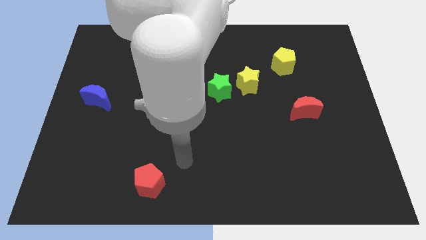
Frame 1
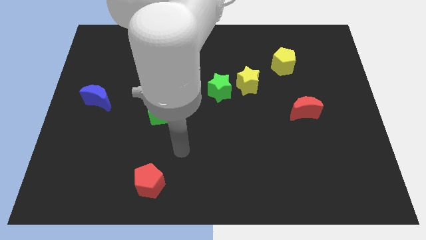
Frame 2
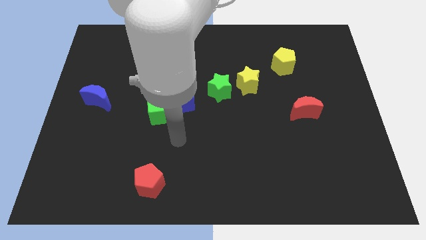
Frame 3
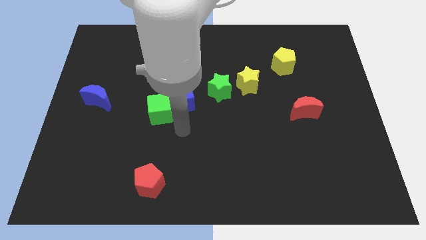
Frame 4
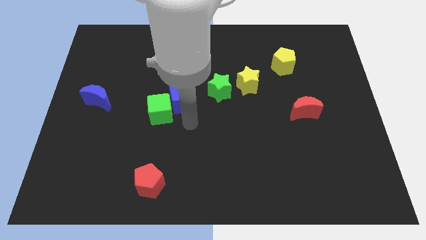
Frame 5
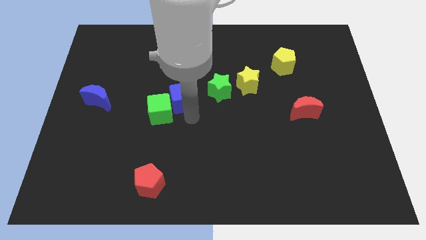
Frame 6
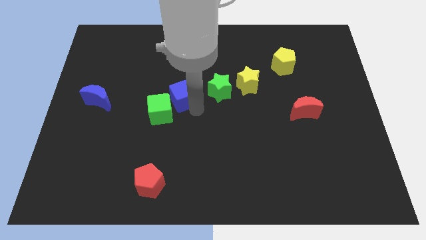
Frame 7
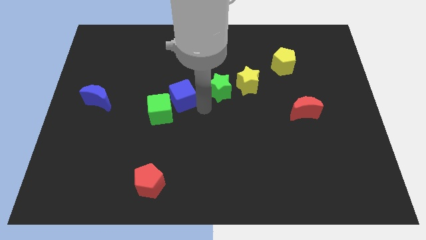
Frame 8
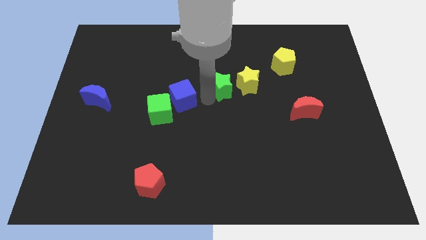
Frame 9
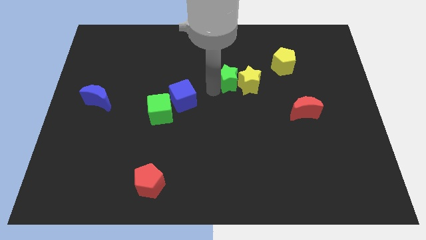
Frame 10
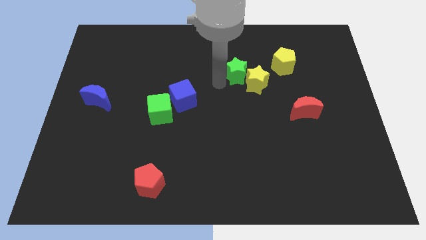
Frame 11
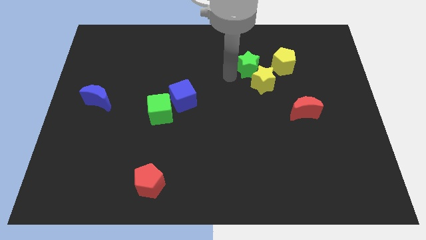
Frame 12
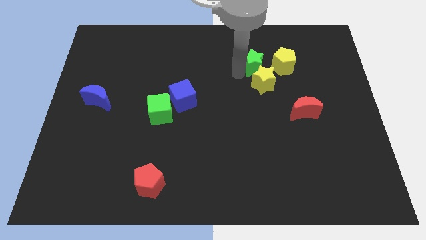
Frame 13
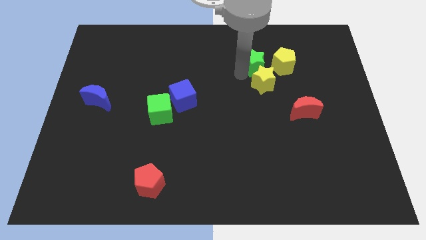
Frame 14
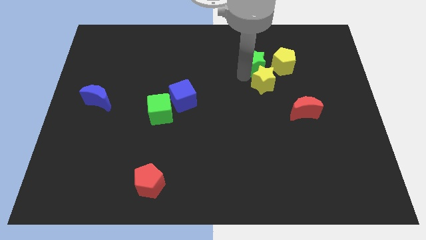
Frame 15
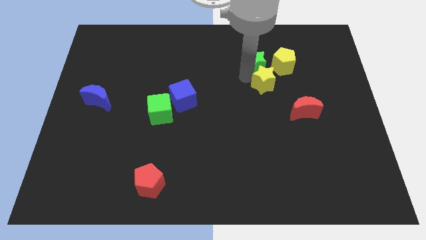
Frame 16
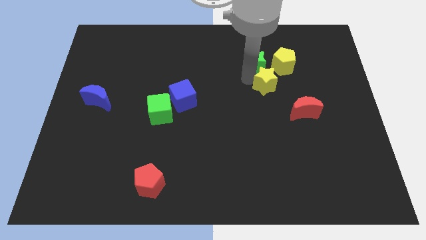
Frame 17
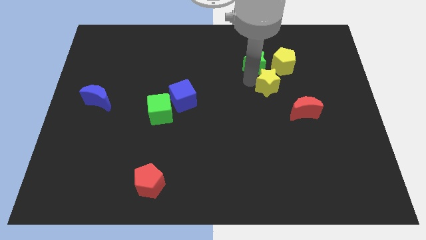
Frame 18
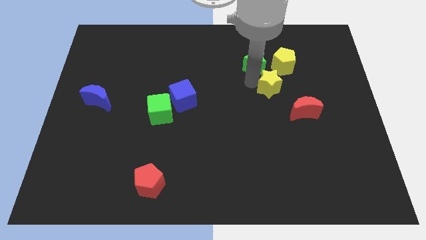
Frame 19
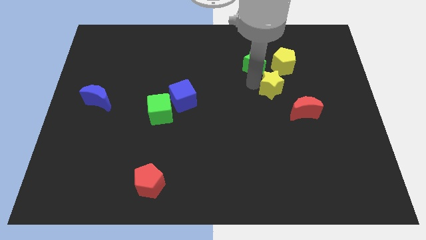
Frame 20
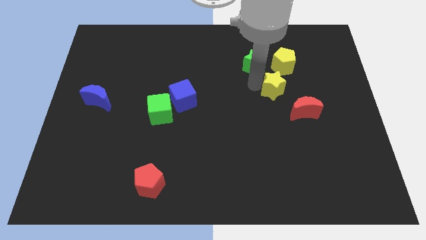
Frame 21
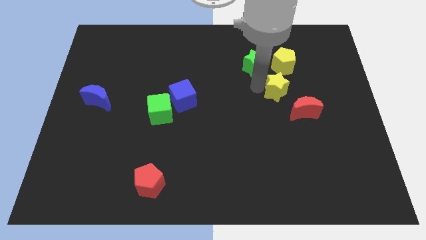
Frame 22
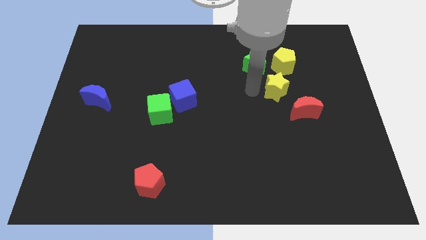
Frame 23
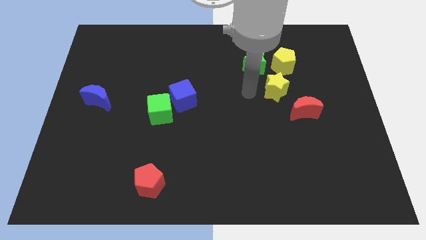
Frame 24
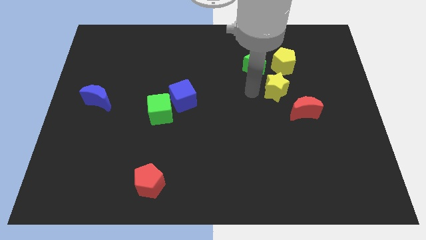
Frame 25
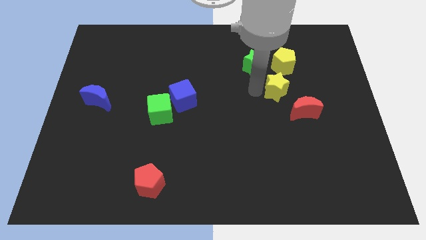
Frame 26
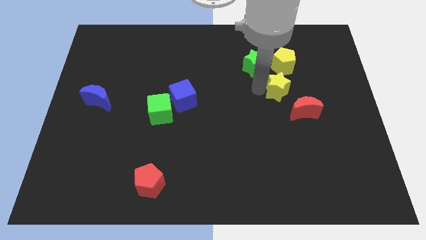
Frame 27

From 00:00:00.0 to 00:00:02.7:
push the yellow star right a bit

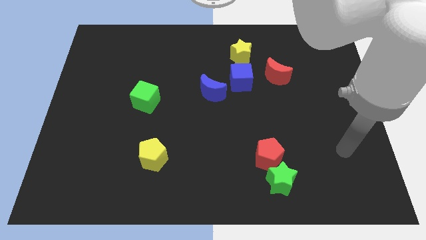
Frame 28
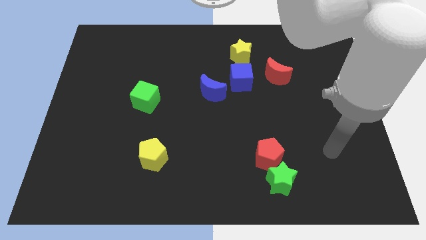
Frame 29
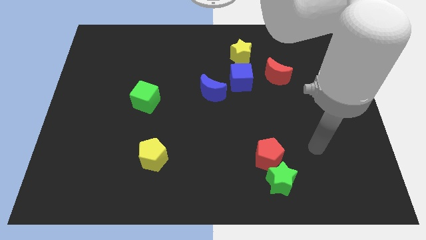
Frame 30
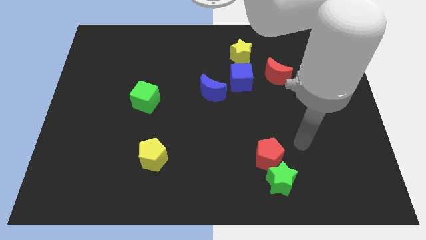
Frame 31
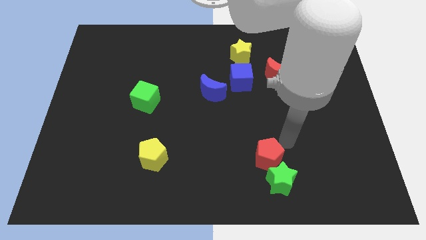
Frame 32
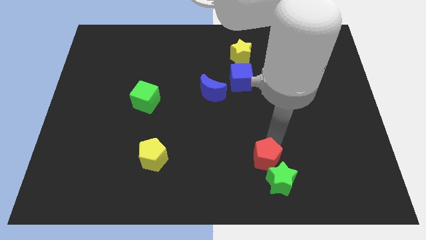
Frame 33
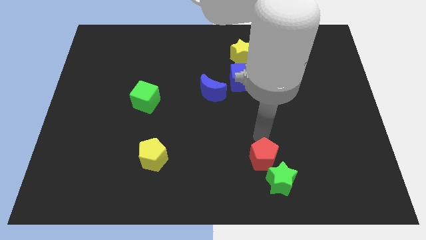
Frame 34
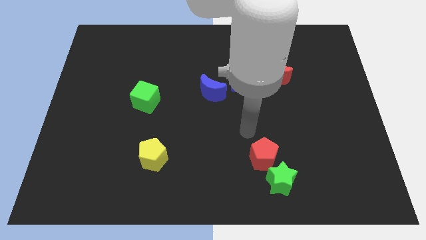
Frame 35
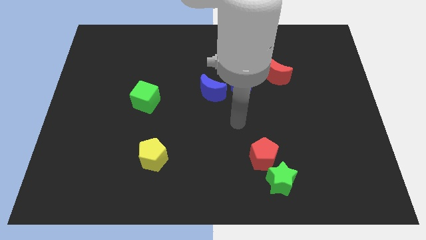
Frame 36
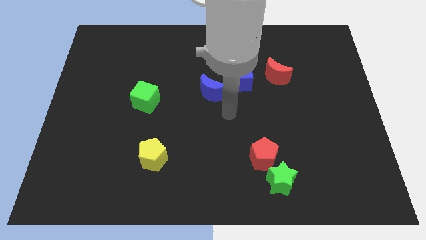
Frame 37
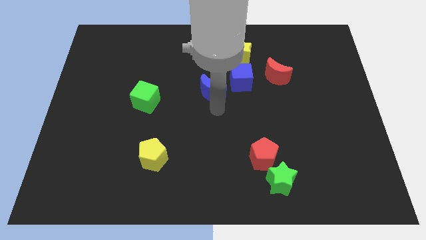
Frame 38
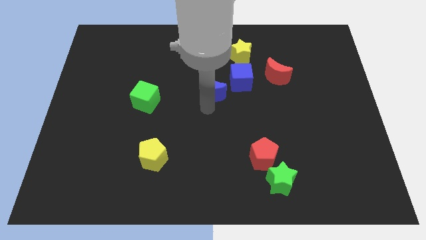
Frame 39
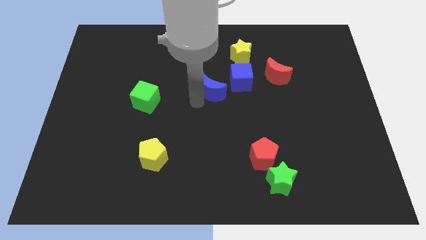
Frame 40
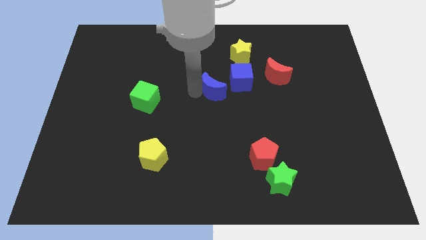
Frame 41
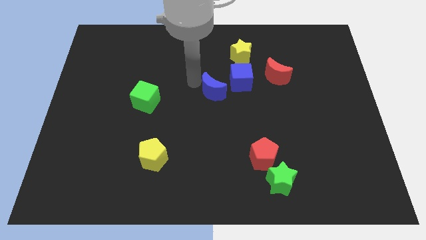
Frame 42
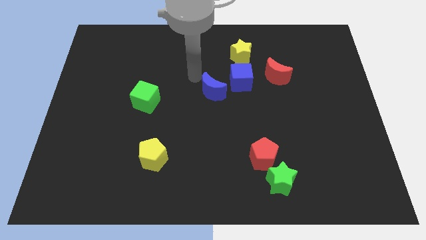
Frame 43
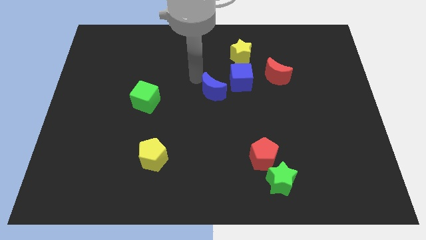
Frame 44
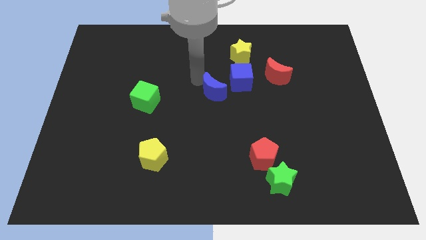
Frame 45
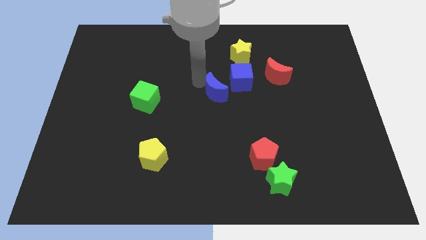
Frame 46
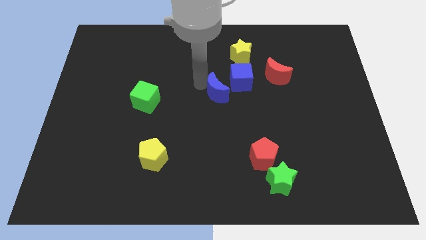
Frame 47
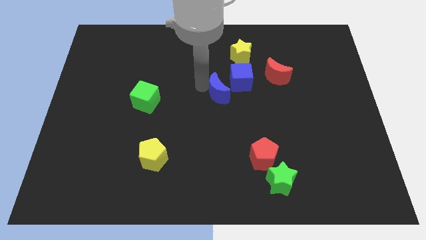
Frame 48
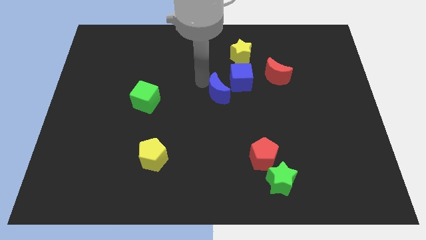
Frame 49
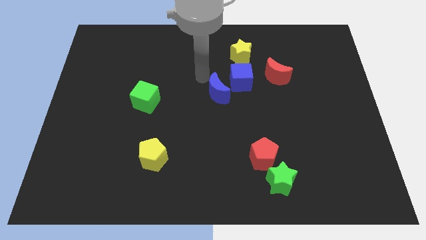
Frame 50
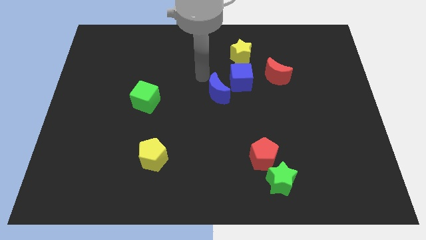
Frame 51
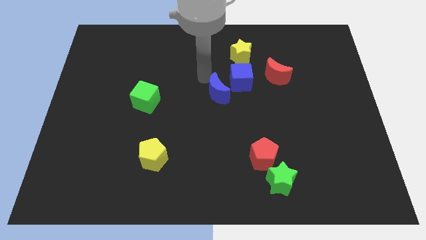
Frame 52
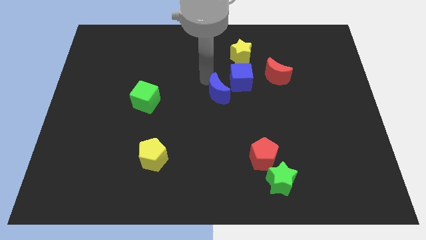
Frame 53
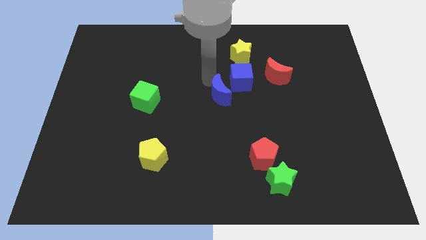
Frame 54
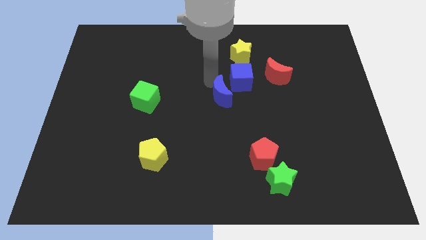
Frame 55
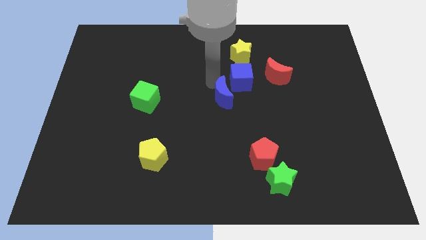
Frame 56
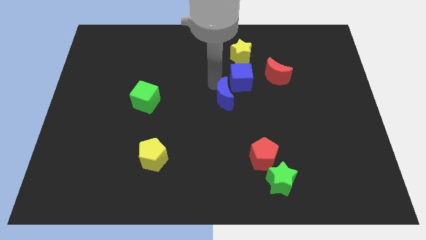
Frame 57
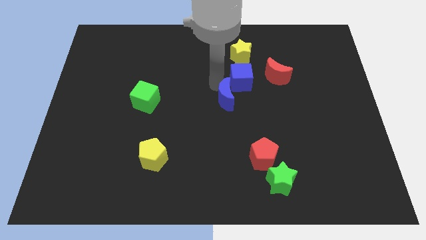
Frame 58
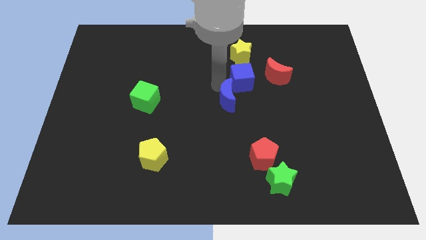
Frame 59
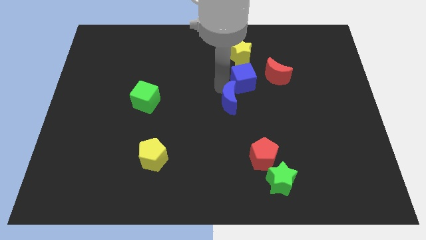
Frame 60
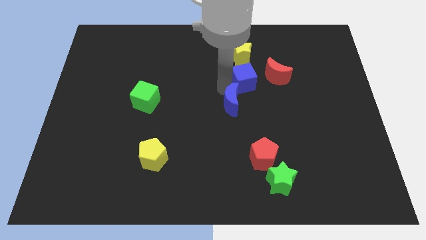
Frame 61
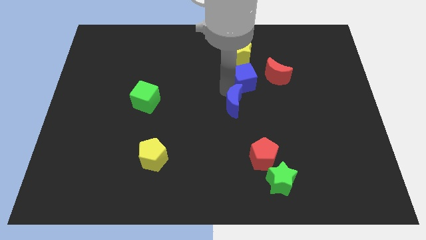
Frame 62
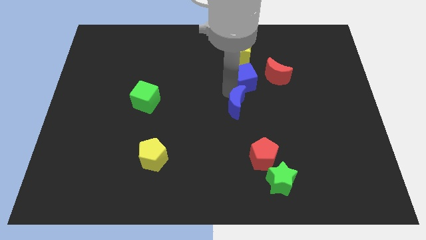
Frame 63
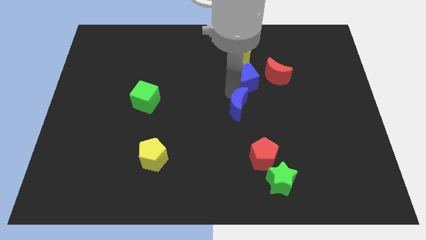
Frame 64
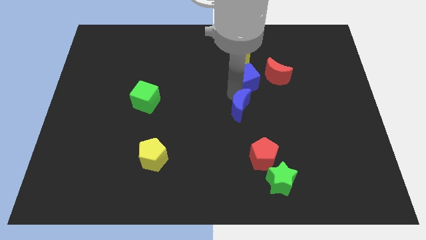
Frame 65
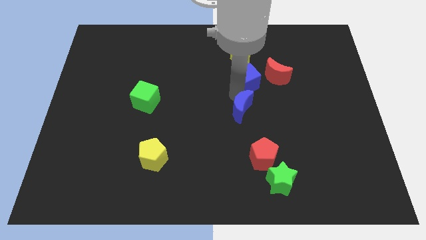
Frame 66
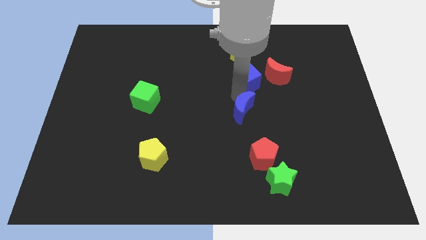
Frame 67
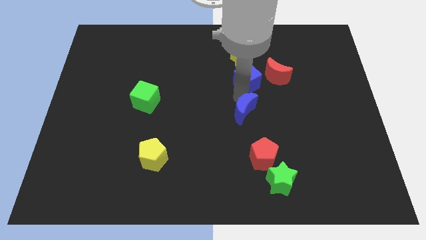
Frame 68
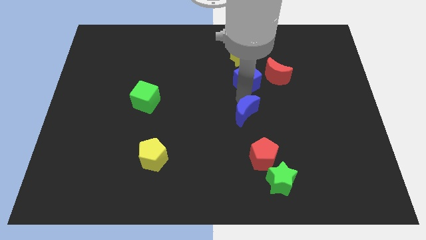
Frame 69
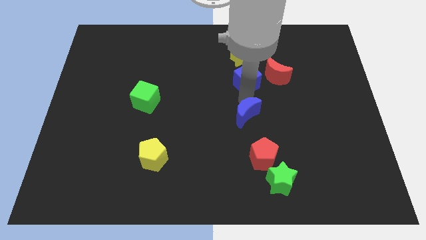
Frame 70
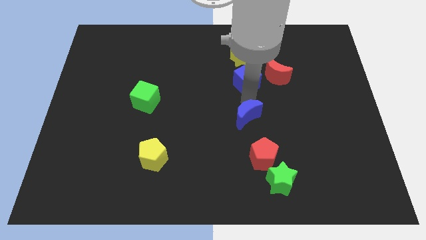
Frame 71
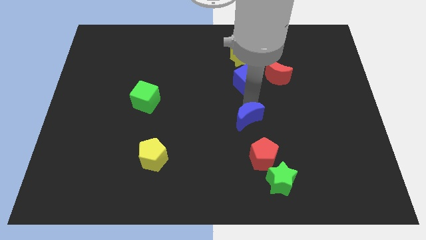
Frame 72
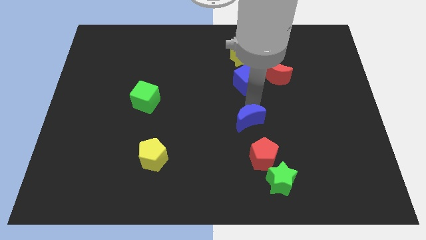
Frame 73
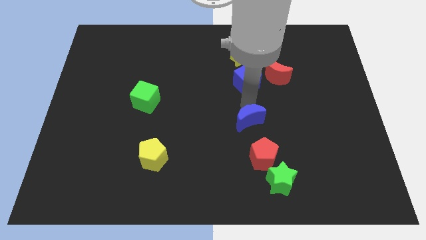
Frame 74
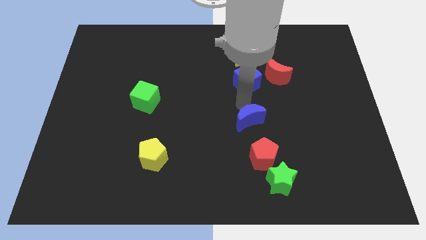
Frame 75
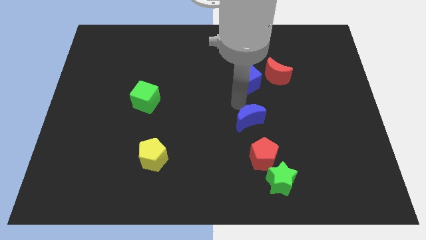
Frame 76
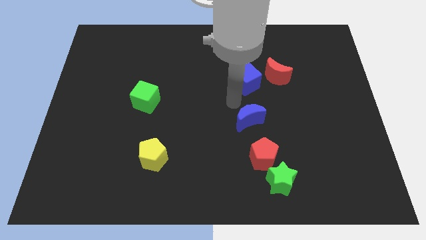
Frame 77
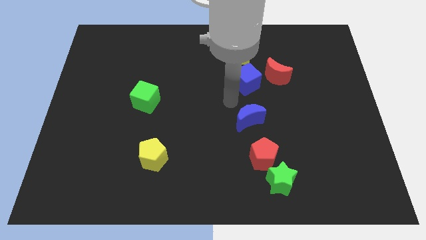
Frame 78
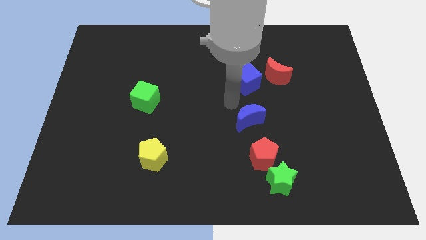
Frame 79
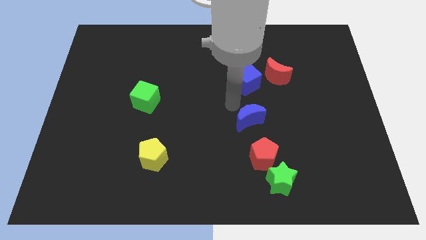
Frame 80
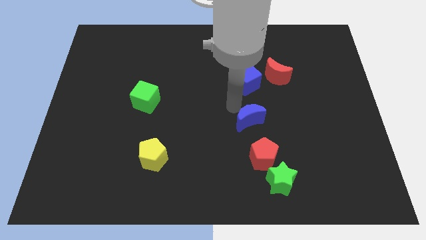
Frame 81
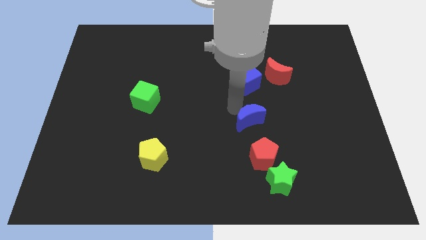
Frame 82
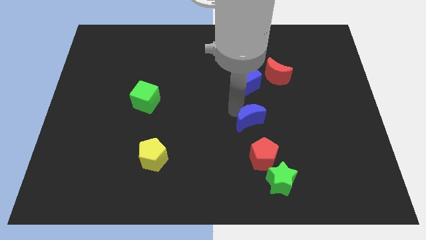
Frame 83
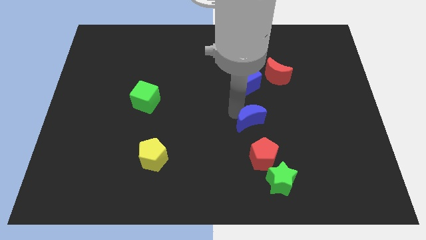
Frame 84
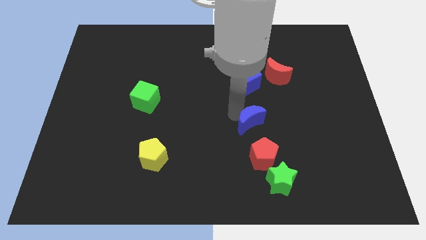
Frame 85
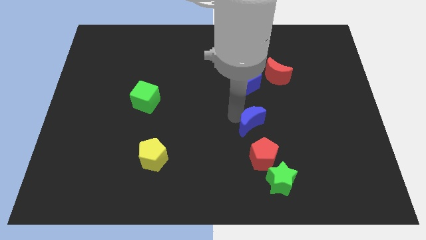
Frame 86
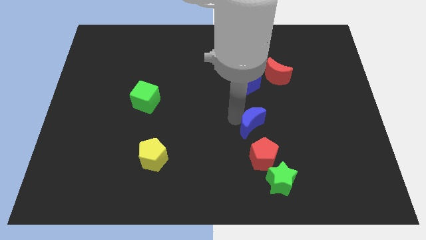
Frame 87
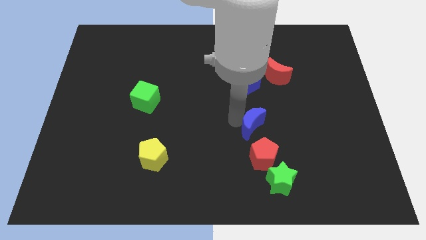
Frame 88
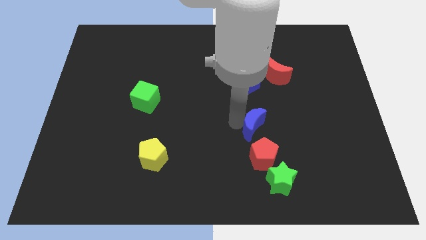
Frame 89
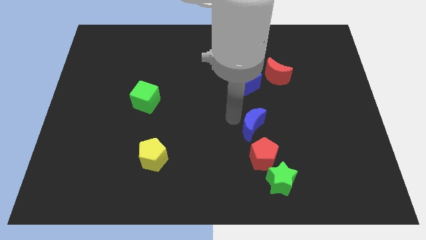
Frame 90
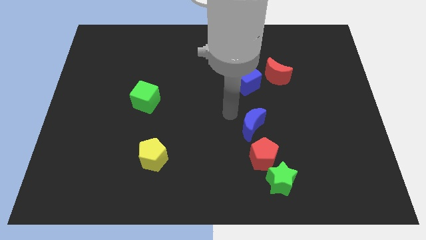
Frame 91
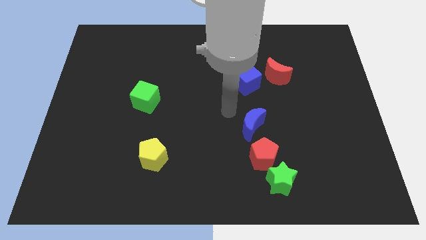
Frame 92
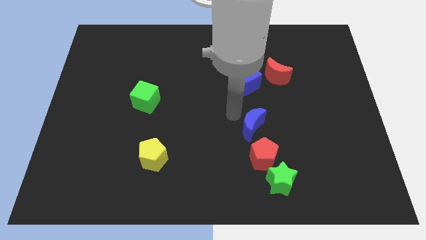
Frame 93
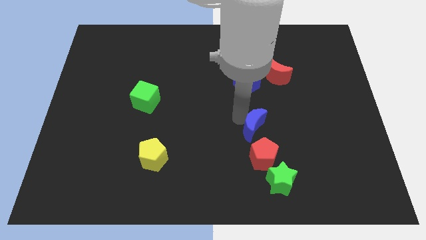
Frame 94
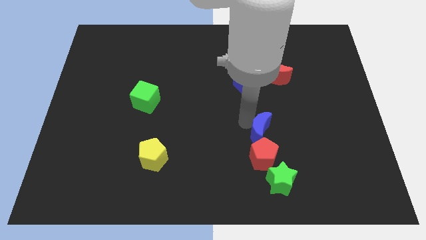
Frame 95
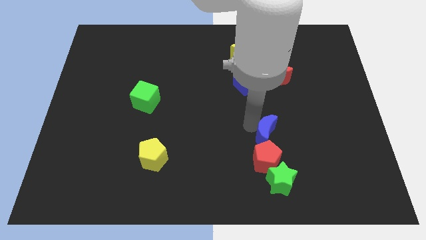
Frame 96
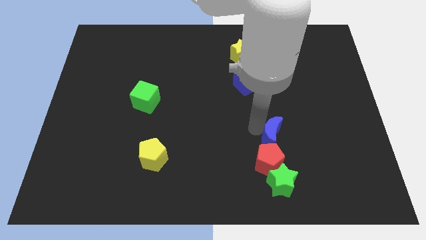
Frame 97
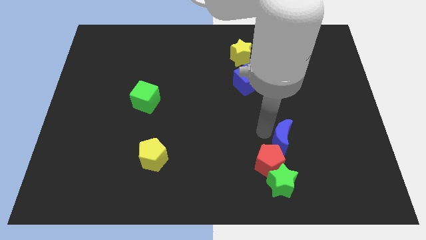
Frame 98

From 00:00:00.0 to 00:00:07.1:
slide the blue moon down and then right
